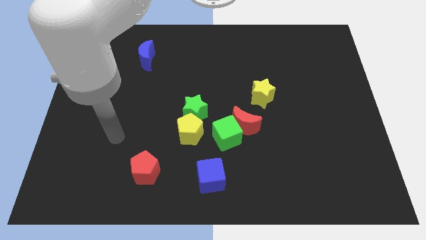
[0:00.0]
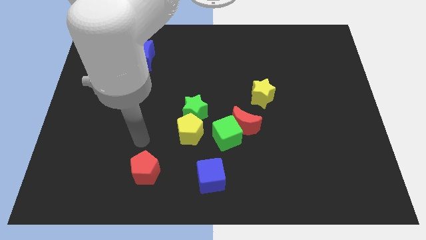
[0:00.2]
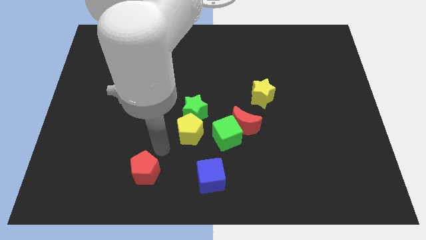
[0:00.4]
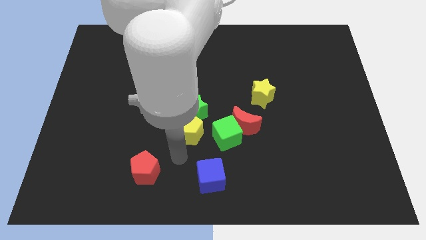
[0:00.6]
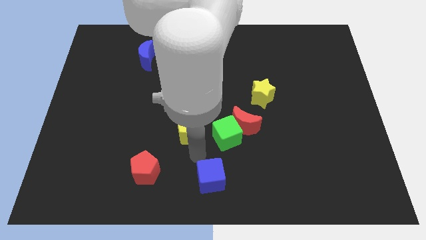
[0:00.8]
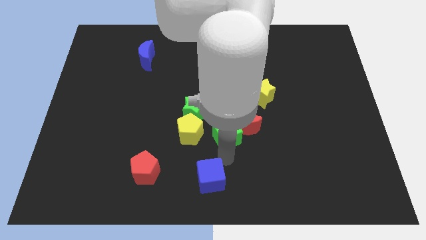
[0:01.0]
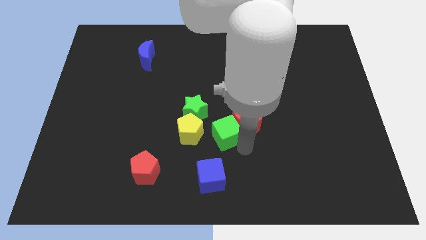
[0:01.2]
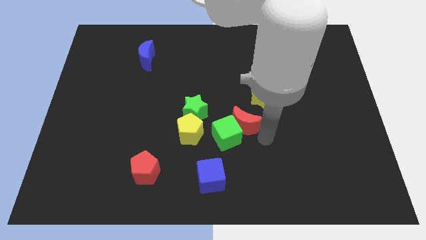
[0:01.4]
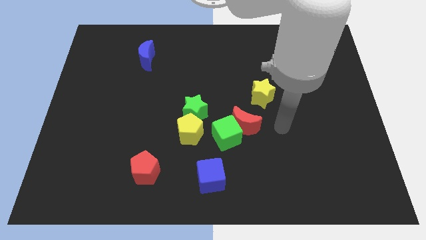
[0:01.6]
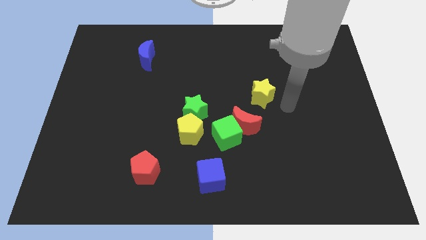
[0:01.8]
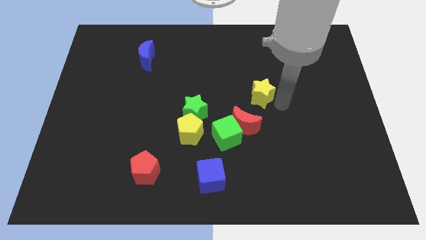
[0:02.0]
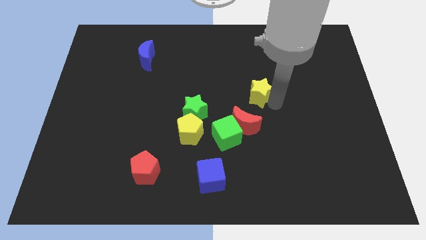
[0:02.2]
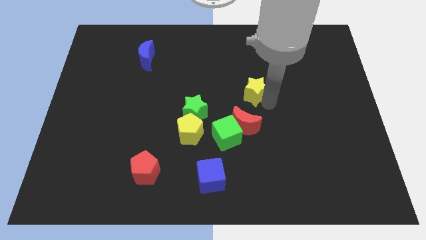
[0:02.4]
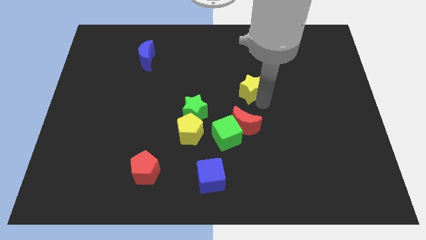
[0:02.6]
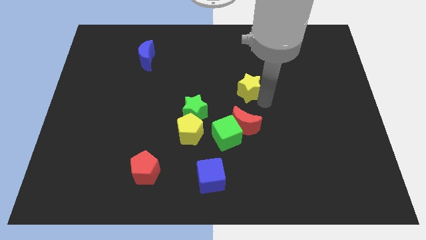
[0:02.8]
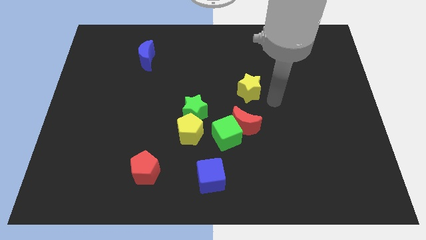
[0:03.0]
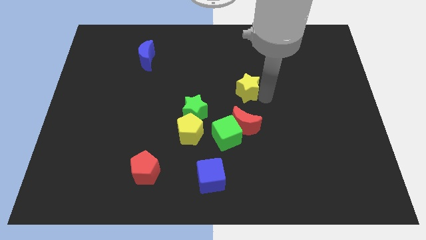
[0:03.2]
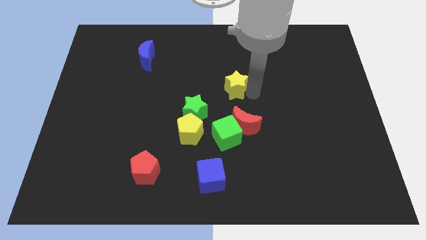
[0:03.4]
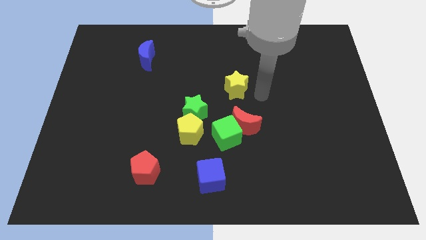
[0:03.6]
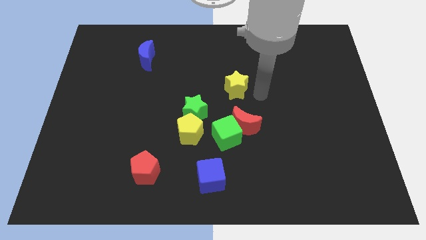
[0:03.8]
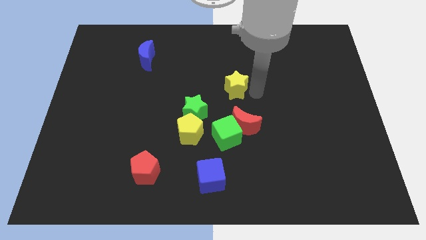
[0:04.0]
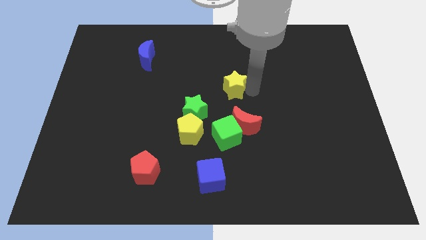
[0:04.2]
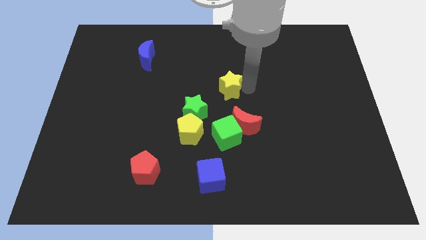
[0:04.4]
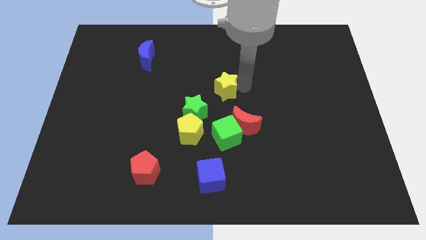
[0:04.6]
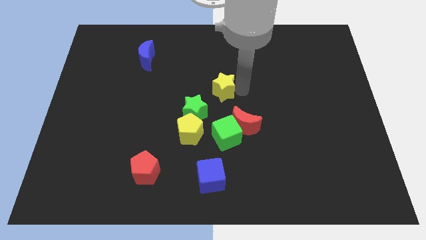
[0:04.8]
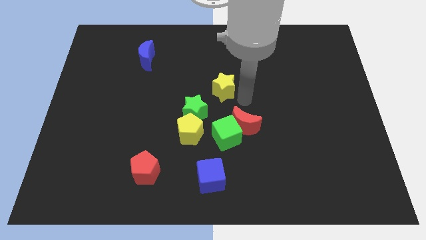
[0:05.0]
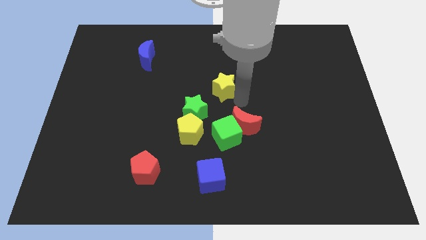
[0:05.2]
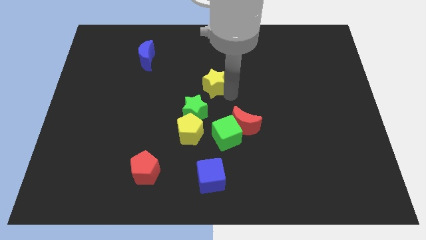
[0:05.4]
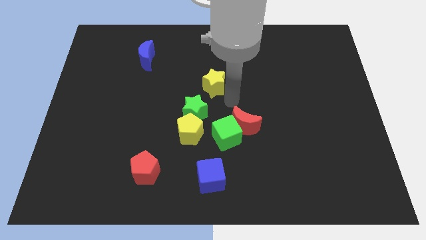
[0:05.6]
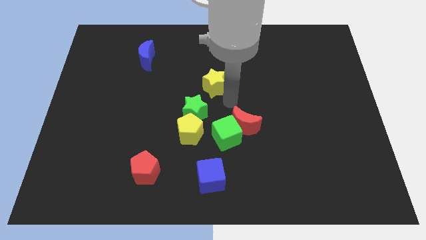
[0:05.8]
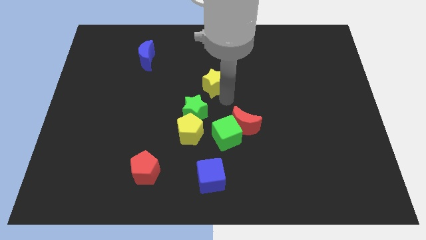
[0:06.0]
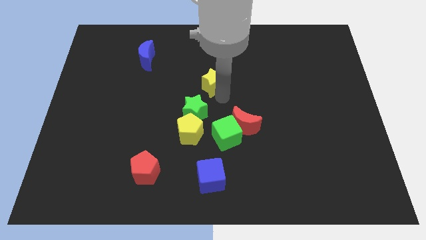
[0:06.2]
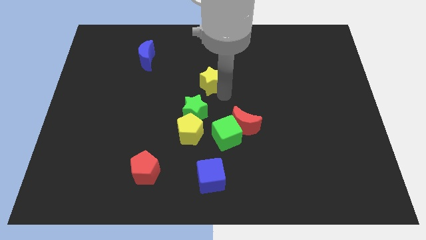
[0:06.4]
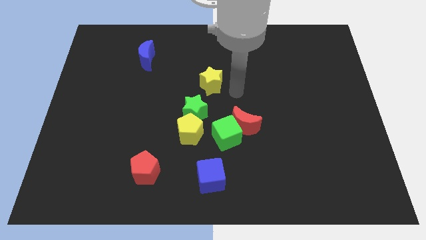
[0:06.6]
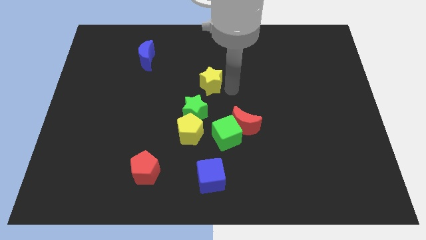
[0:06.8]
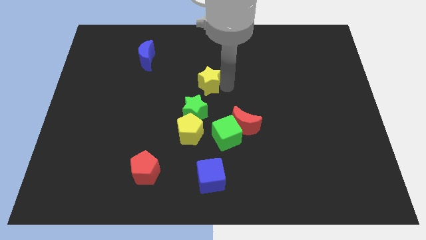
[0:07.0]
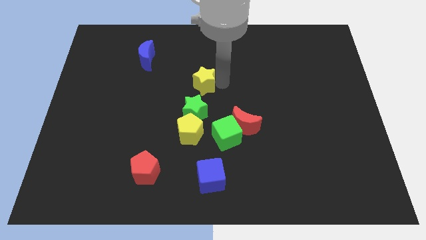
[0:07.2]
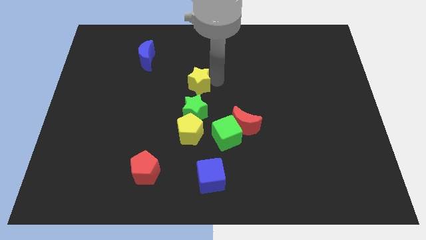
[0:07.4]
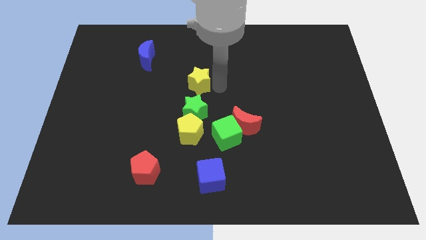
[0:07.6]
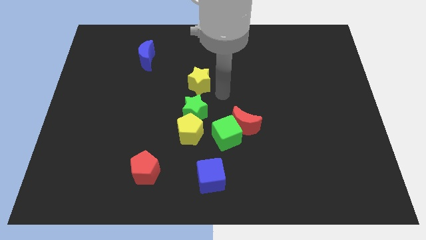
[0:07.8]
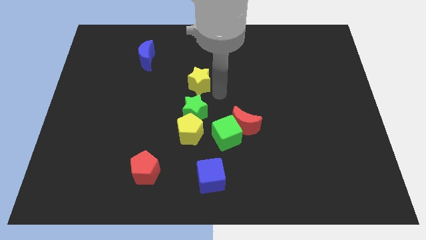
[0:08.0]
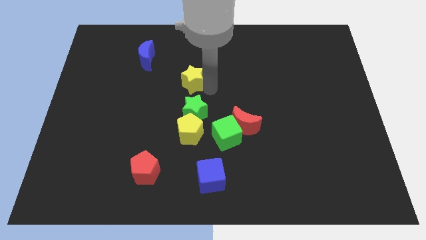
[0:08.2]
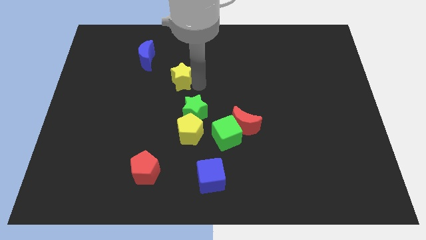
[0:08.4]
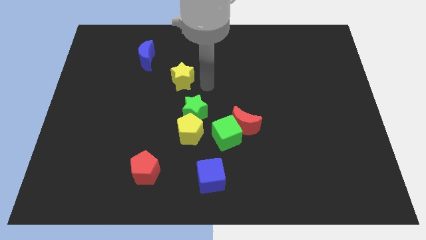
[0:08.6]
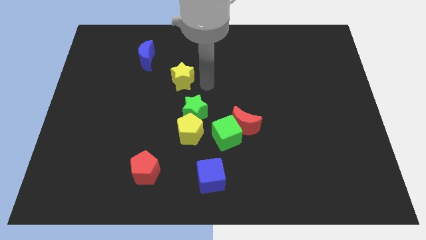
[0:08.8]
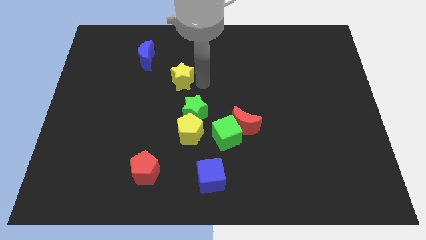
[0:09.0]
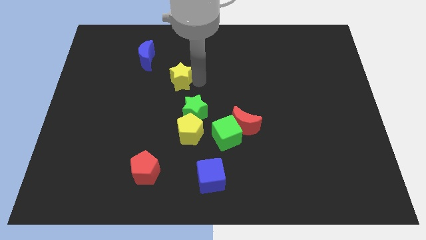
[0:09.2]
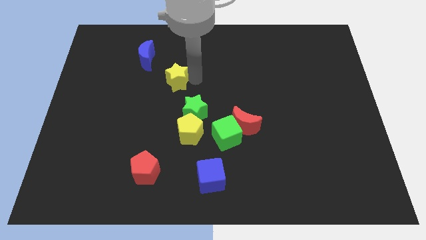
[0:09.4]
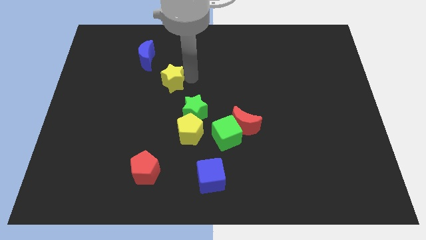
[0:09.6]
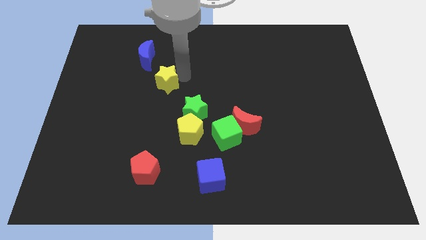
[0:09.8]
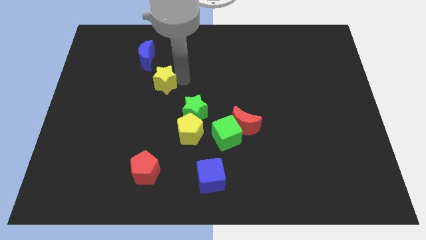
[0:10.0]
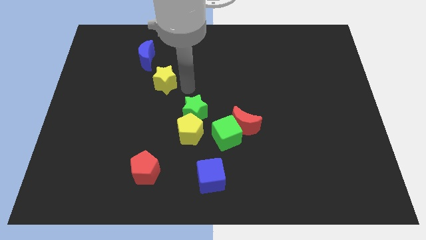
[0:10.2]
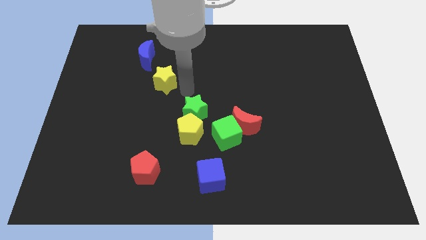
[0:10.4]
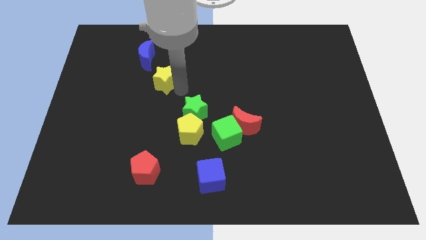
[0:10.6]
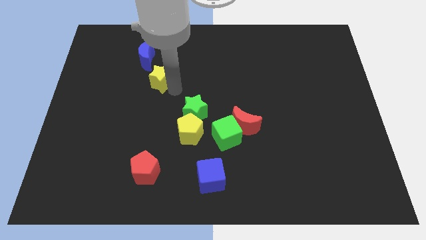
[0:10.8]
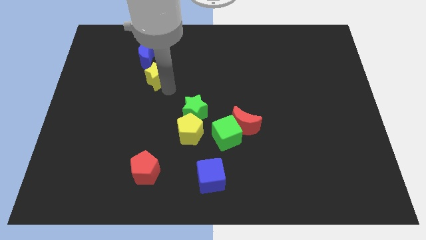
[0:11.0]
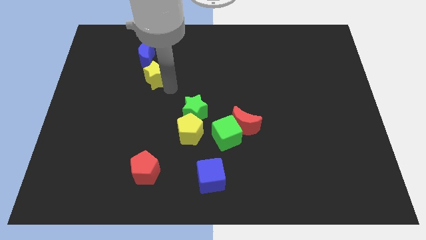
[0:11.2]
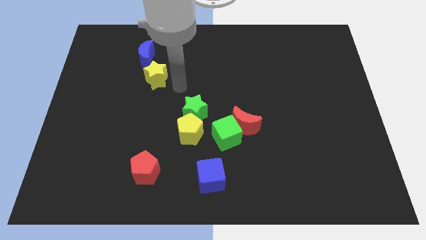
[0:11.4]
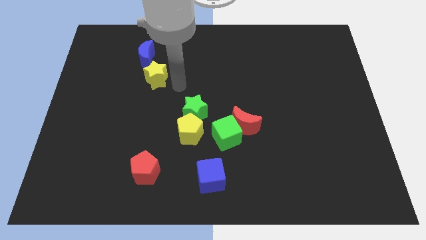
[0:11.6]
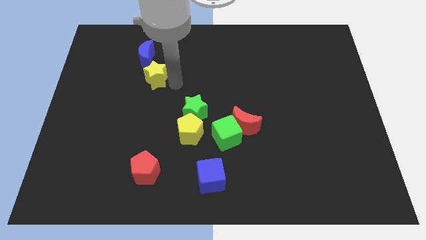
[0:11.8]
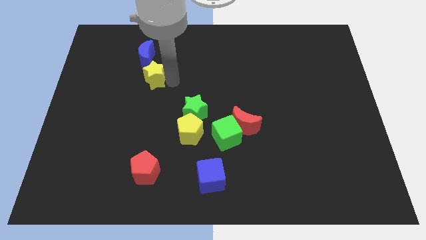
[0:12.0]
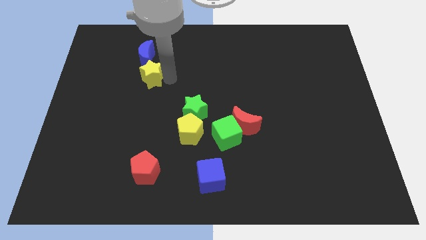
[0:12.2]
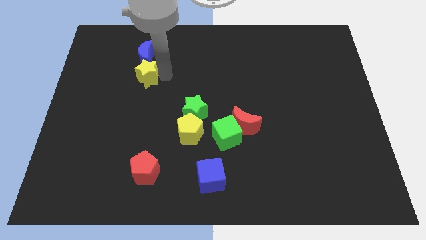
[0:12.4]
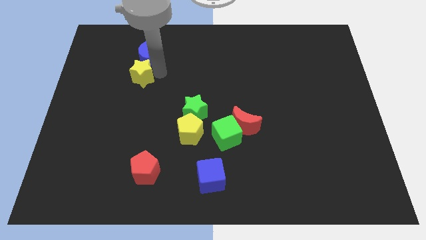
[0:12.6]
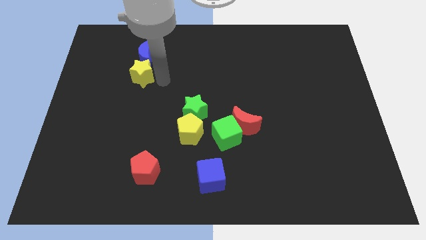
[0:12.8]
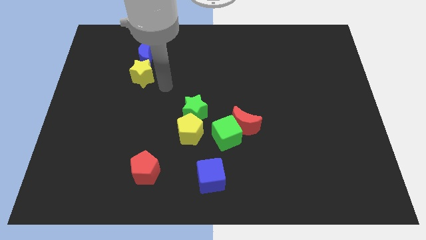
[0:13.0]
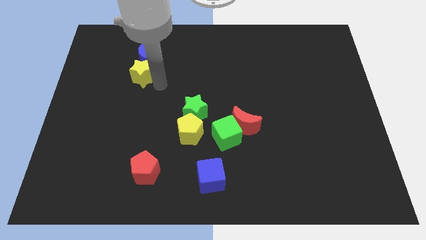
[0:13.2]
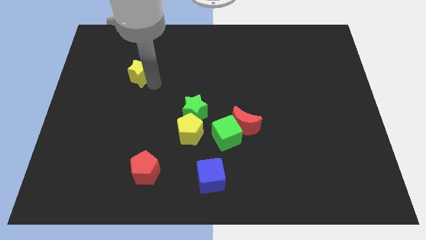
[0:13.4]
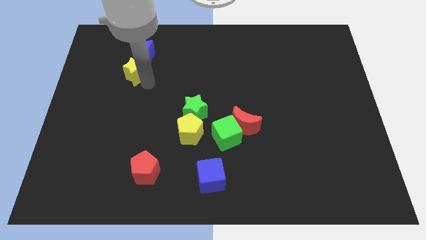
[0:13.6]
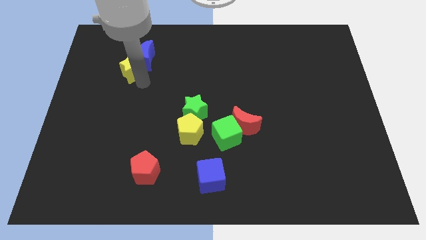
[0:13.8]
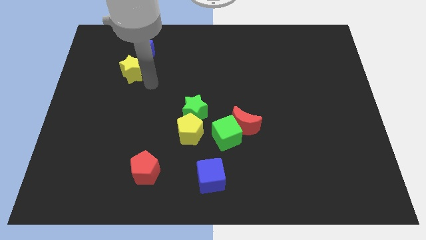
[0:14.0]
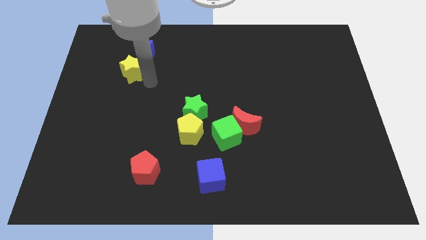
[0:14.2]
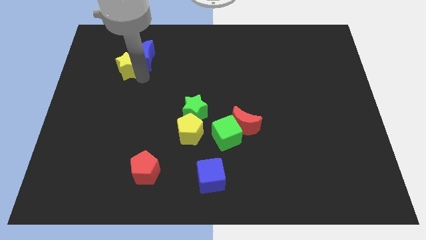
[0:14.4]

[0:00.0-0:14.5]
push the yellow star left of the blue moon
